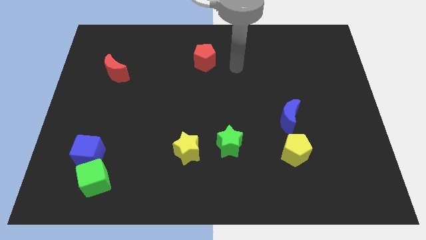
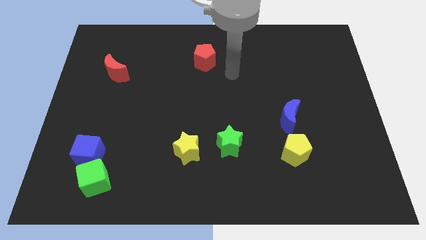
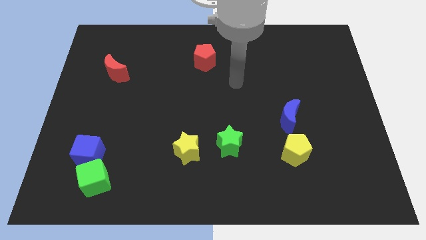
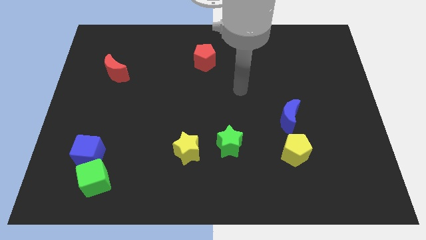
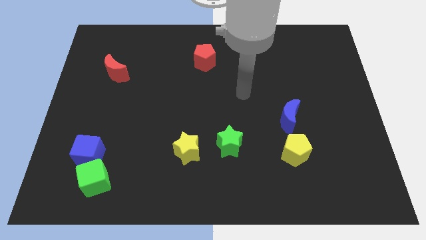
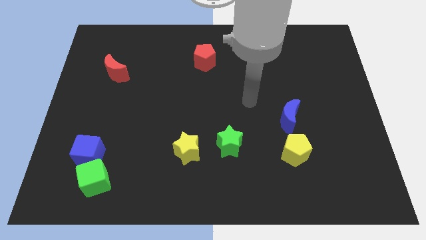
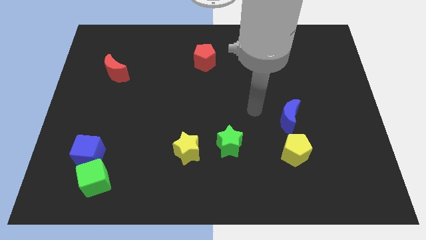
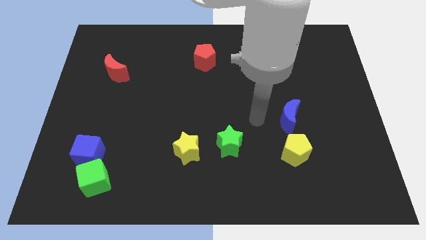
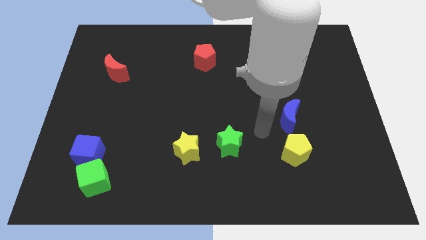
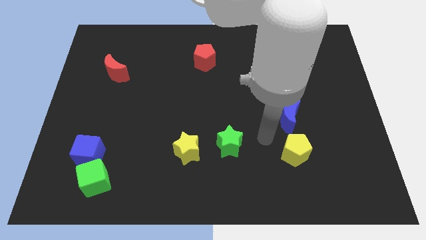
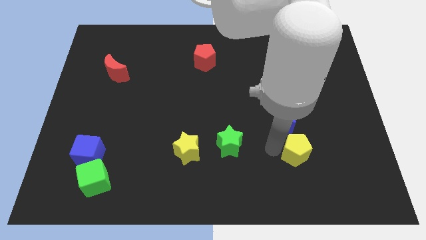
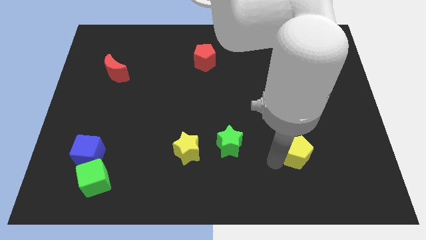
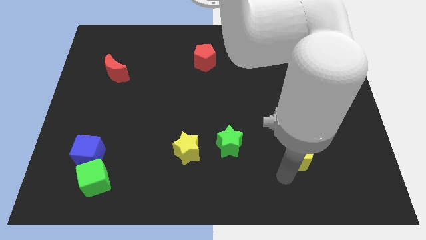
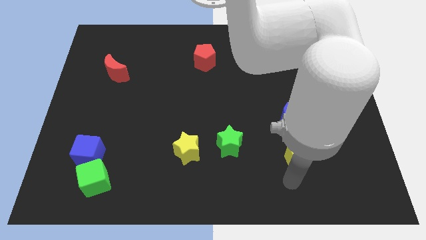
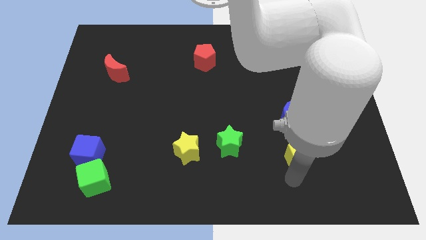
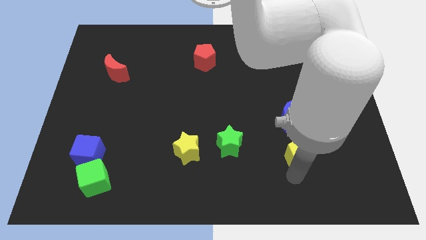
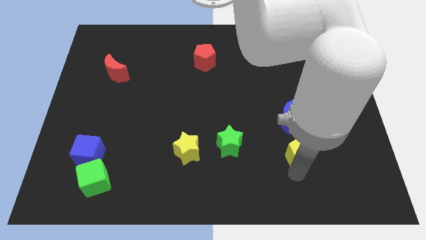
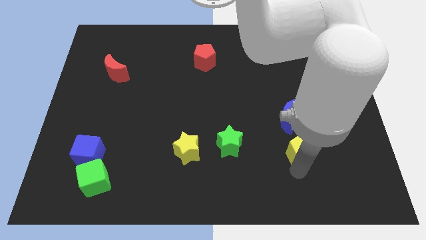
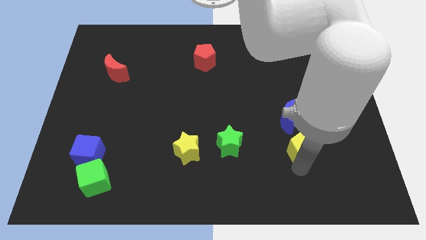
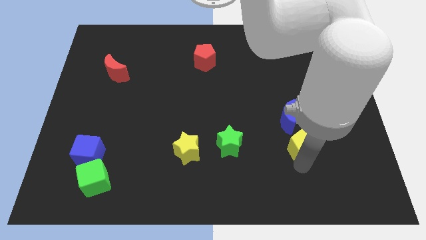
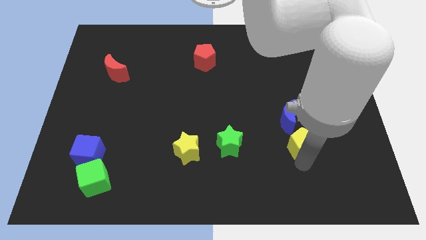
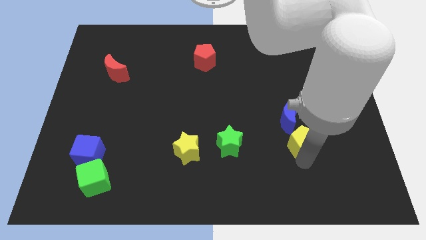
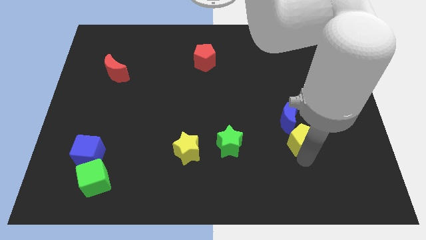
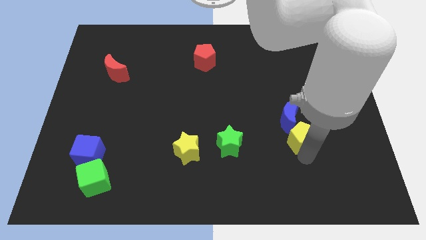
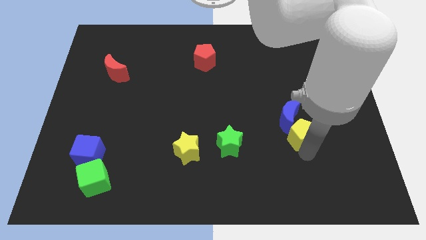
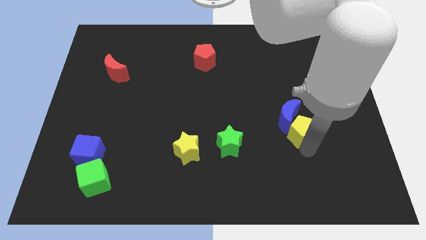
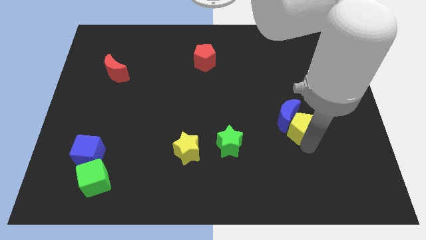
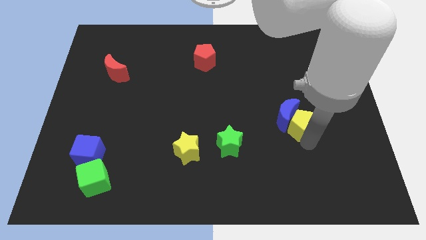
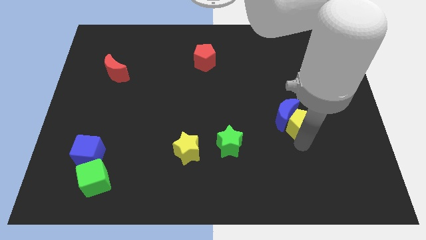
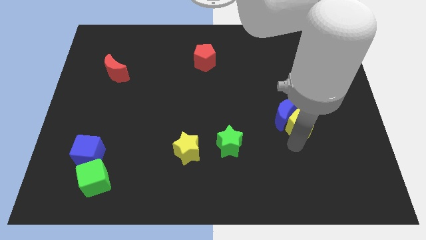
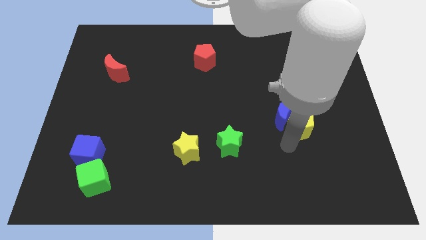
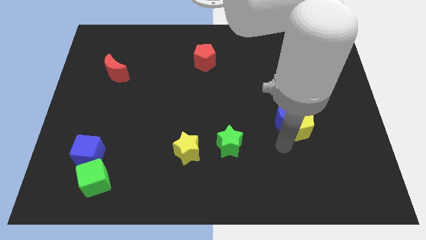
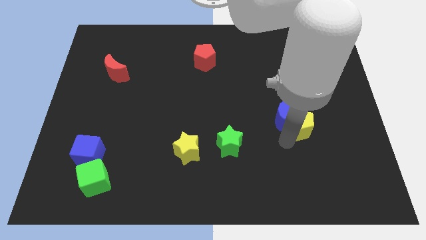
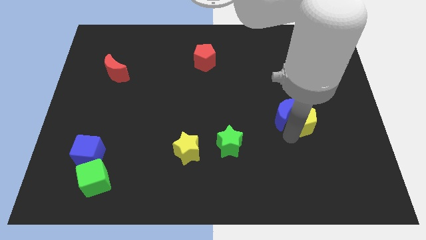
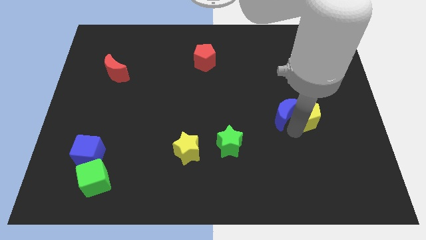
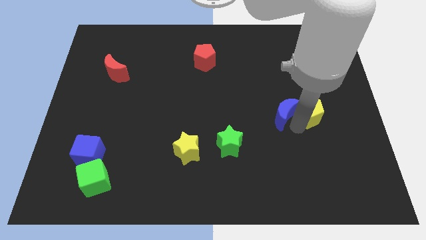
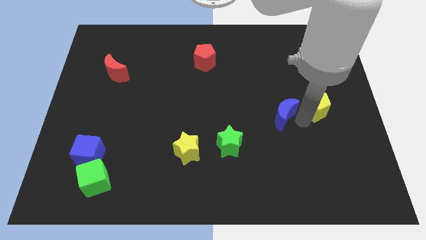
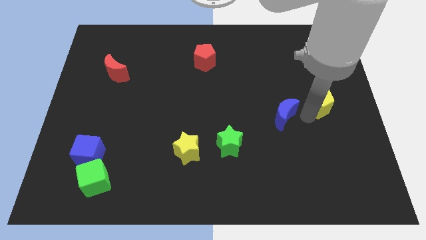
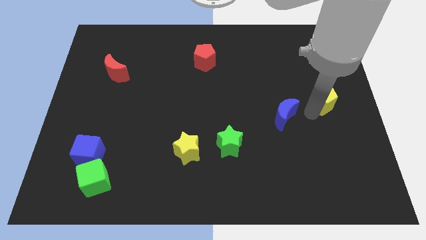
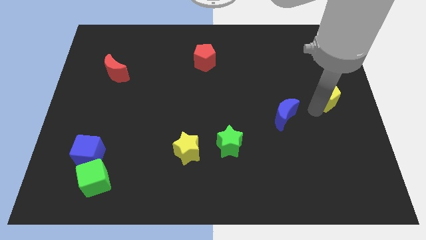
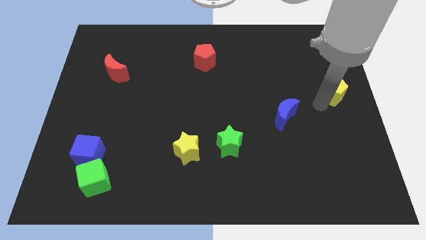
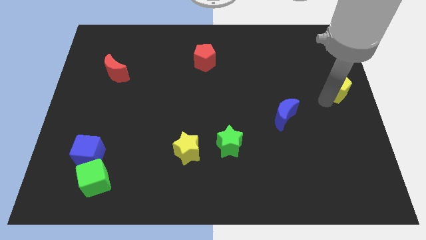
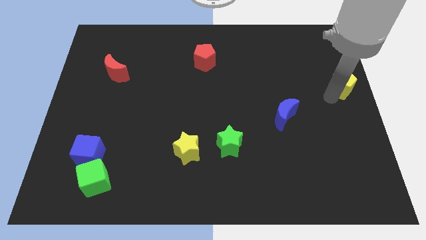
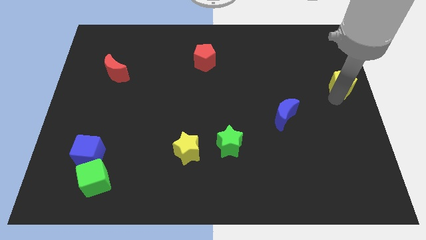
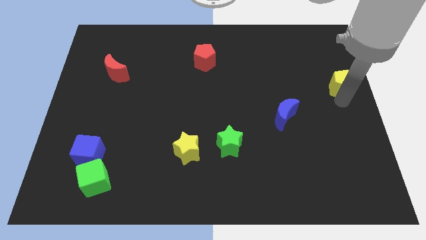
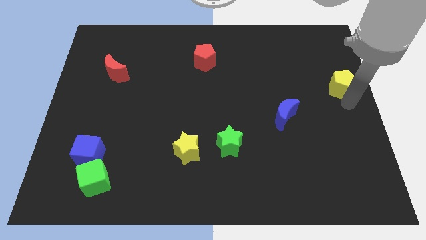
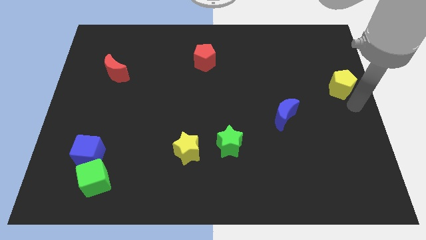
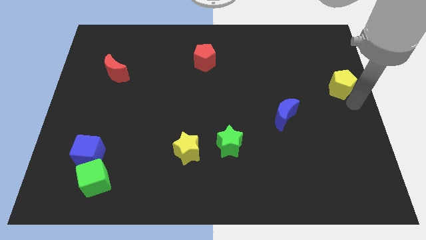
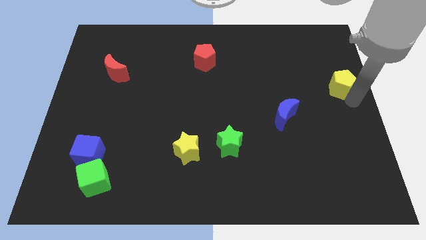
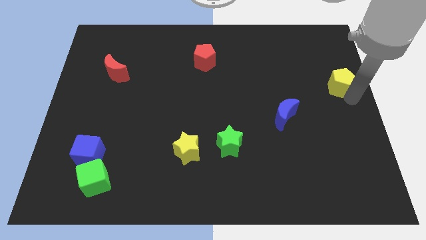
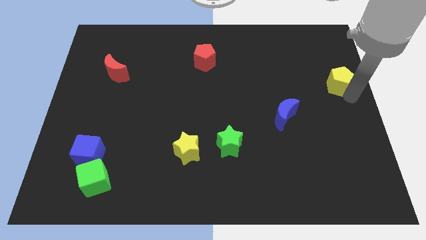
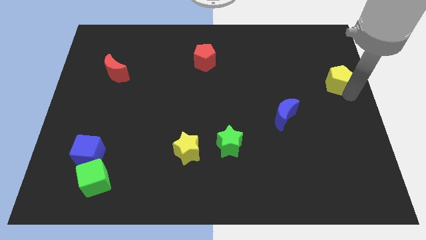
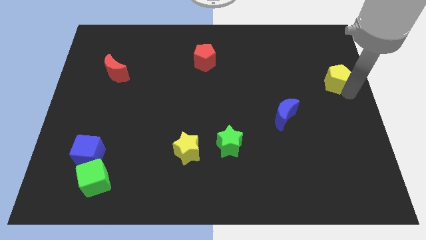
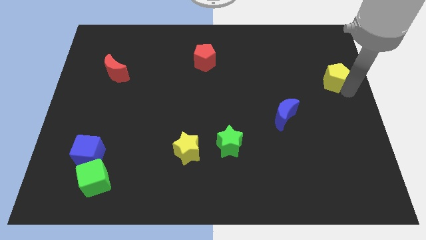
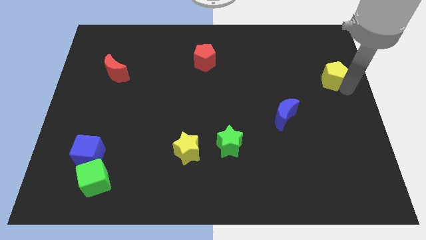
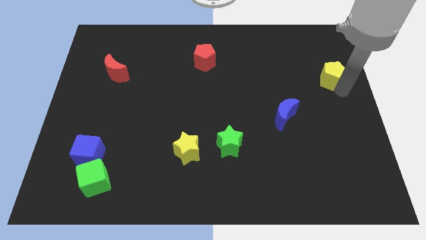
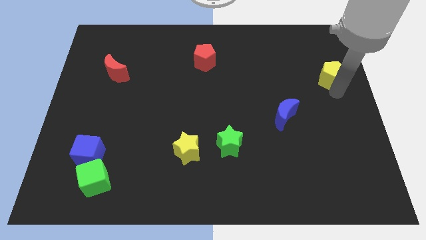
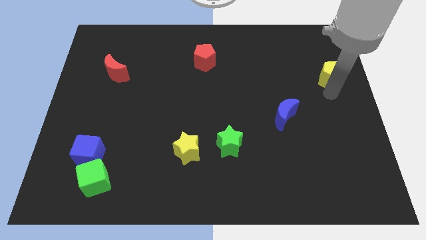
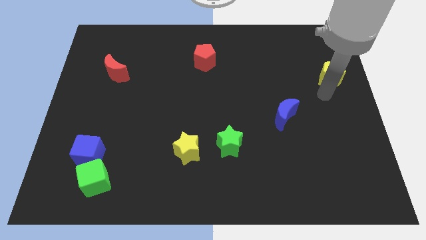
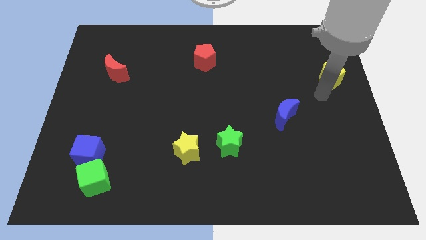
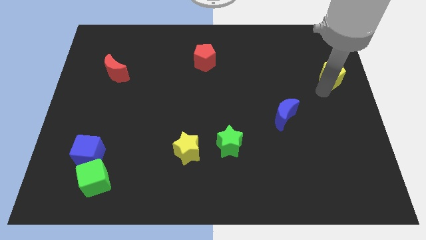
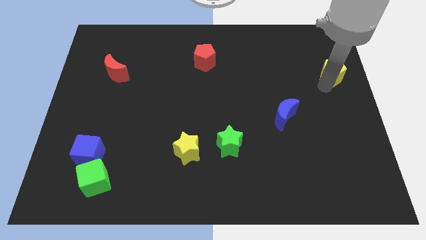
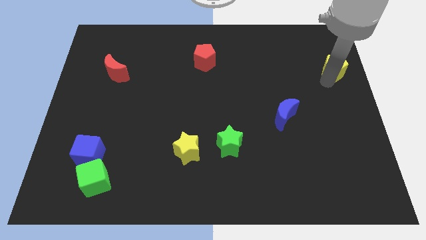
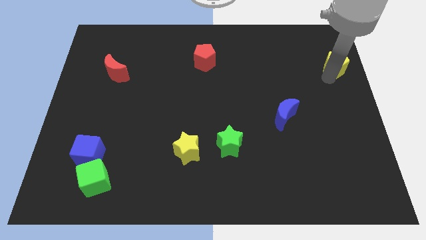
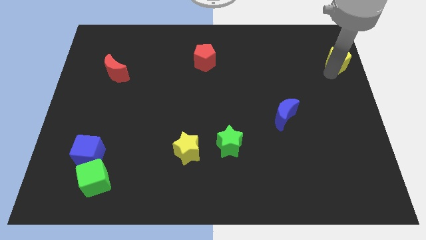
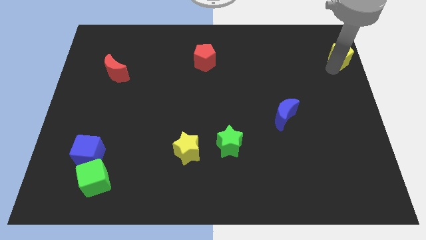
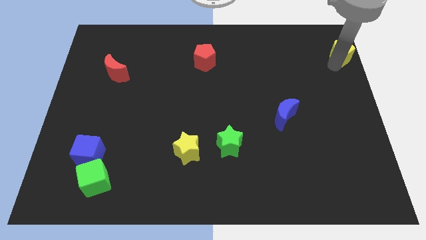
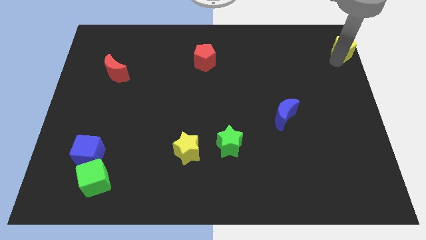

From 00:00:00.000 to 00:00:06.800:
put the yellow pentagon to the upper right corner
